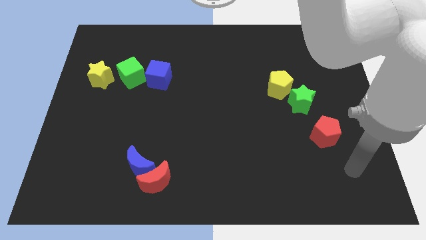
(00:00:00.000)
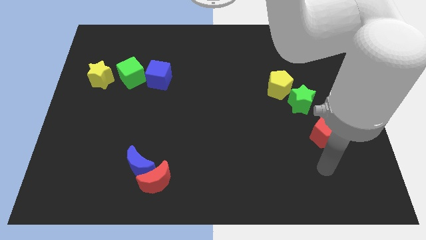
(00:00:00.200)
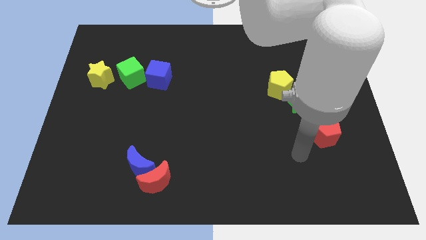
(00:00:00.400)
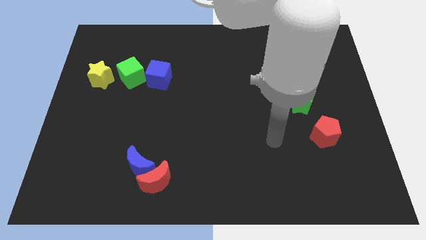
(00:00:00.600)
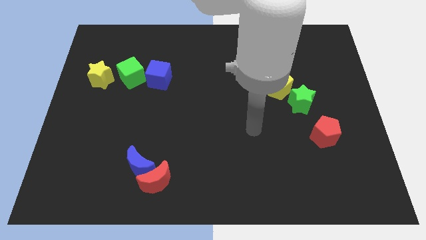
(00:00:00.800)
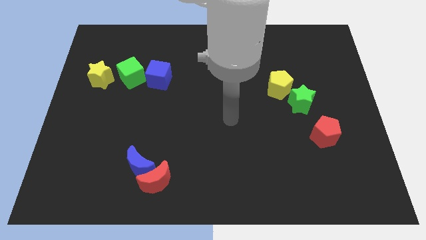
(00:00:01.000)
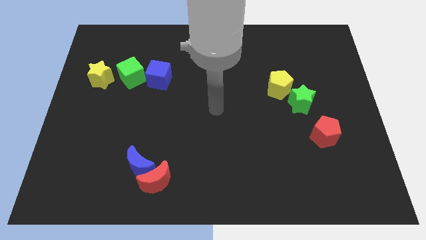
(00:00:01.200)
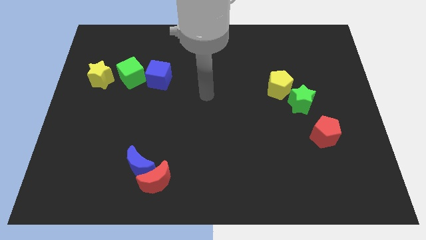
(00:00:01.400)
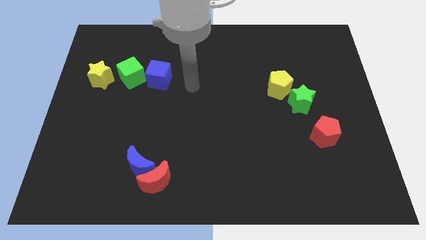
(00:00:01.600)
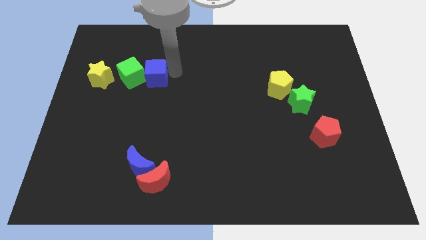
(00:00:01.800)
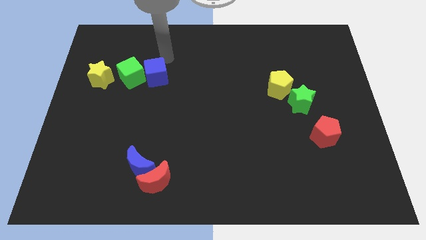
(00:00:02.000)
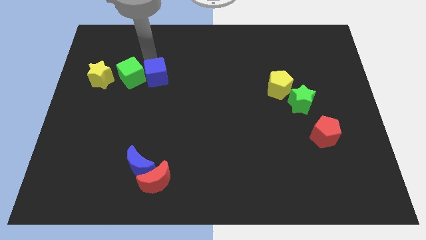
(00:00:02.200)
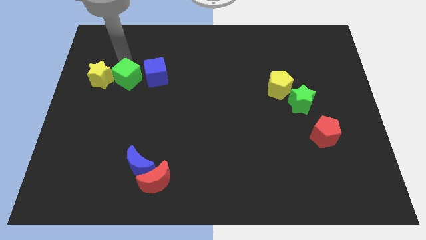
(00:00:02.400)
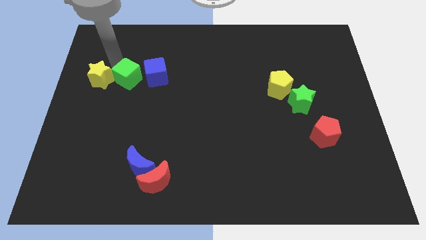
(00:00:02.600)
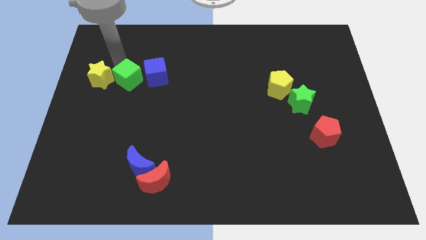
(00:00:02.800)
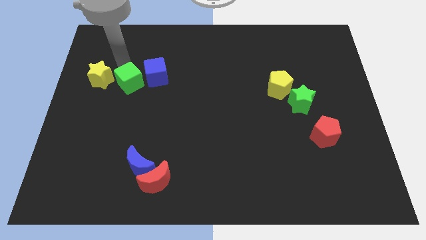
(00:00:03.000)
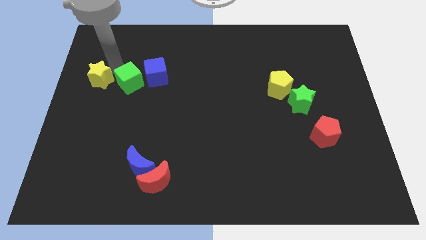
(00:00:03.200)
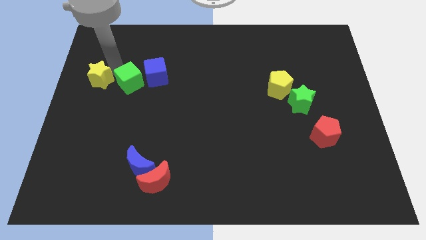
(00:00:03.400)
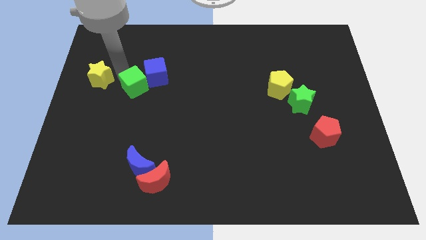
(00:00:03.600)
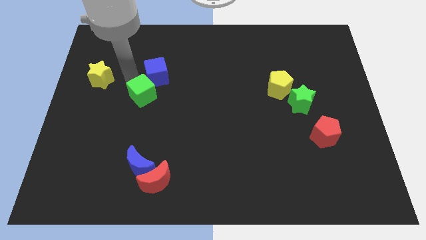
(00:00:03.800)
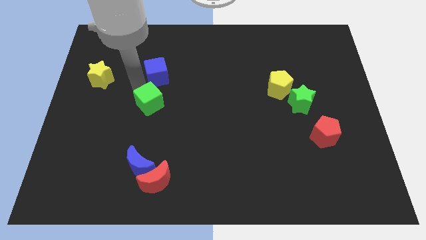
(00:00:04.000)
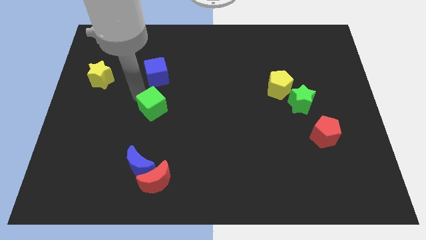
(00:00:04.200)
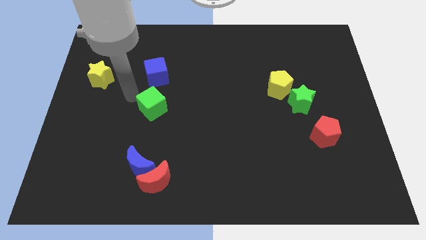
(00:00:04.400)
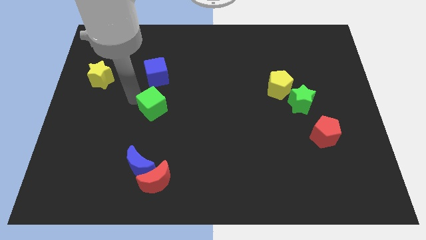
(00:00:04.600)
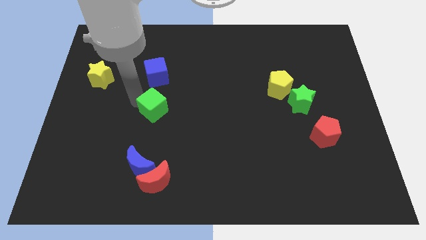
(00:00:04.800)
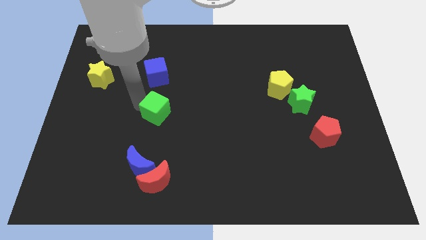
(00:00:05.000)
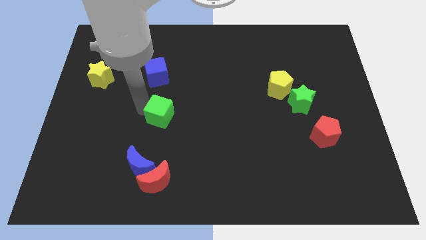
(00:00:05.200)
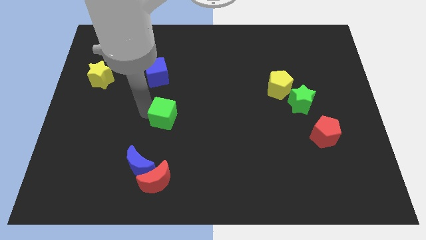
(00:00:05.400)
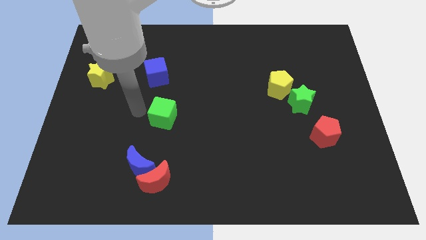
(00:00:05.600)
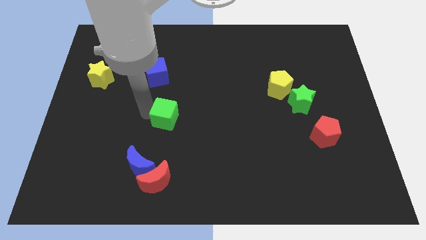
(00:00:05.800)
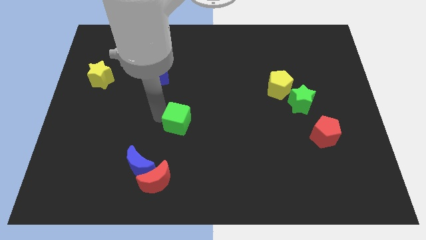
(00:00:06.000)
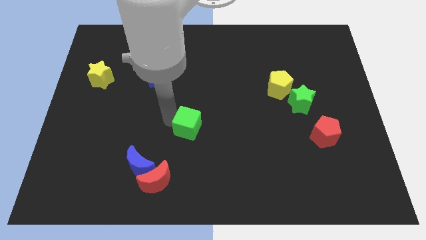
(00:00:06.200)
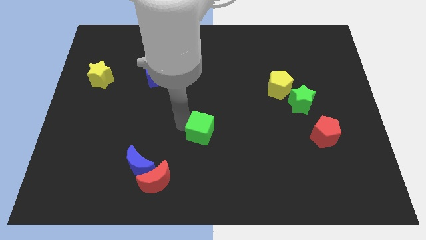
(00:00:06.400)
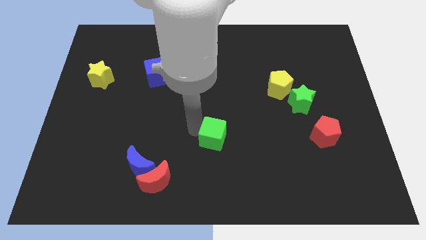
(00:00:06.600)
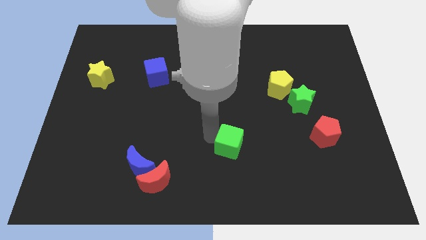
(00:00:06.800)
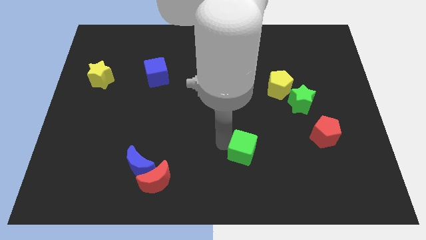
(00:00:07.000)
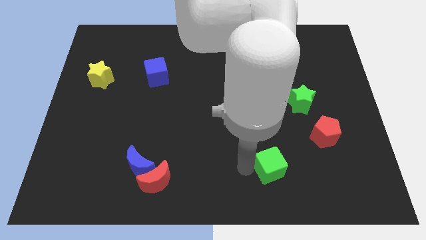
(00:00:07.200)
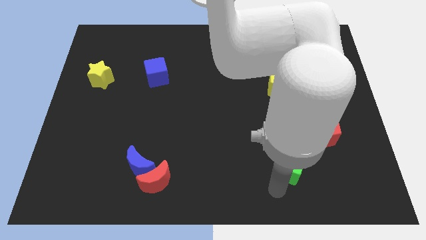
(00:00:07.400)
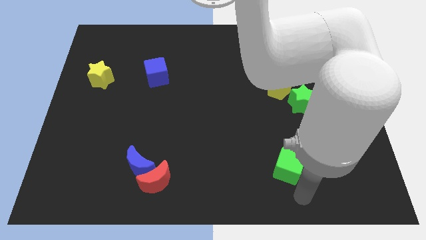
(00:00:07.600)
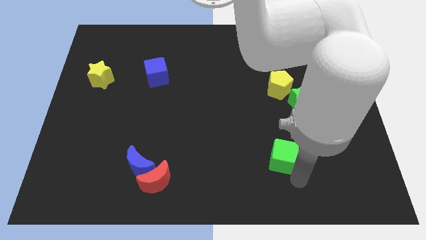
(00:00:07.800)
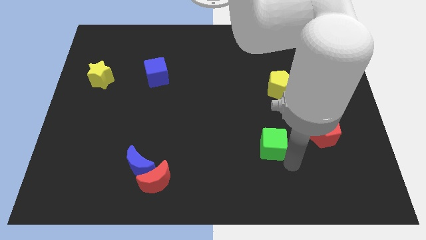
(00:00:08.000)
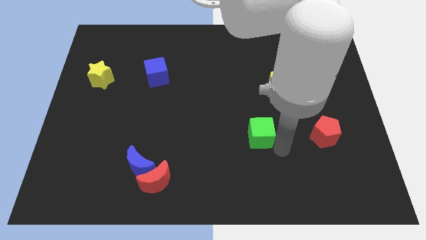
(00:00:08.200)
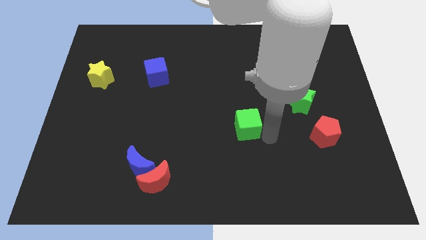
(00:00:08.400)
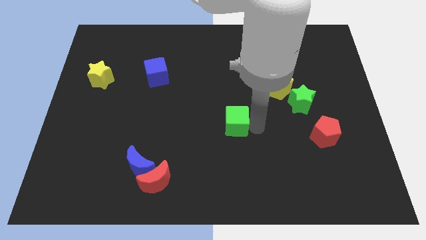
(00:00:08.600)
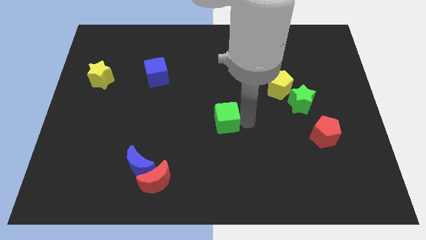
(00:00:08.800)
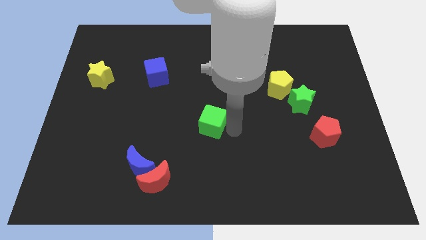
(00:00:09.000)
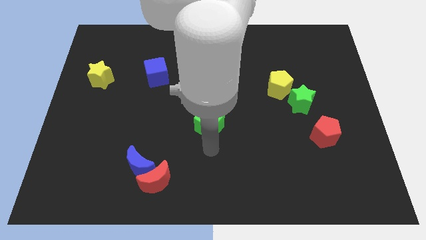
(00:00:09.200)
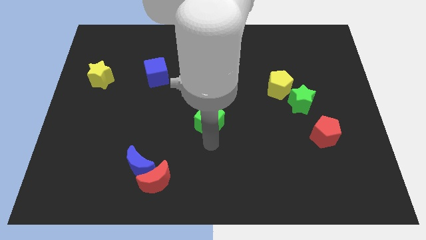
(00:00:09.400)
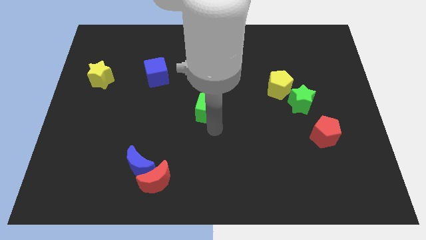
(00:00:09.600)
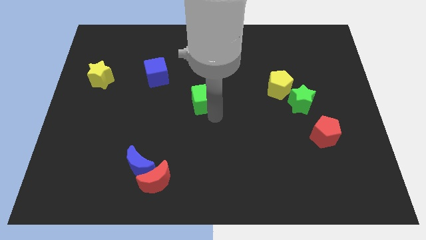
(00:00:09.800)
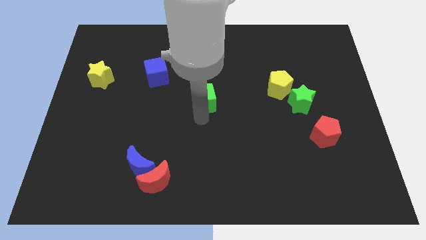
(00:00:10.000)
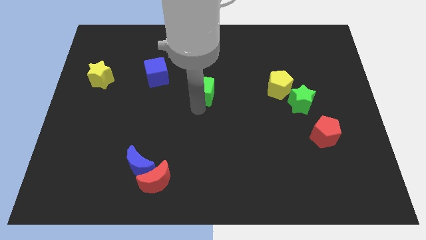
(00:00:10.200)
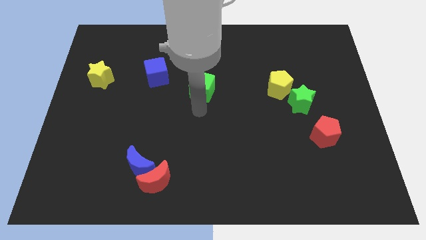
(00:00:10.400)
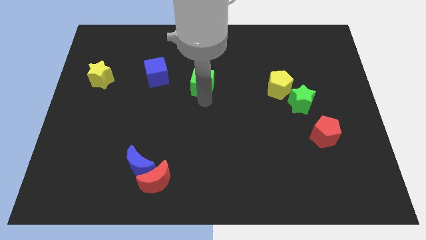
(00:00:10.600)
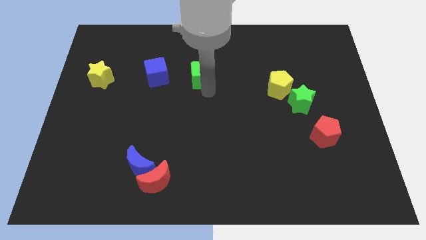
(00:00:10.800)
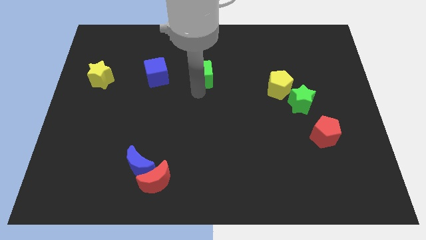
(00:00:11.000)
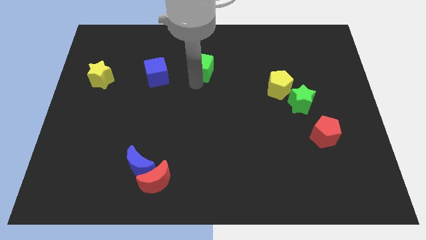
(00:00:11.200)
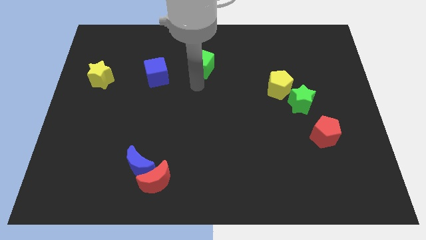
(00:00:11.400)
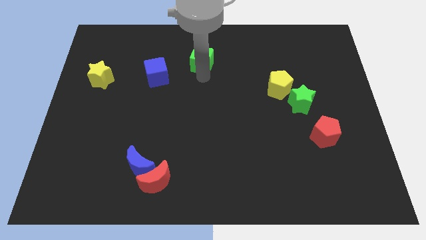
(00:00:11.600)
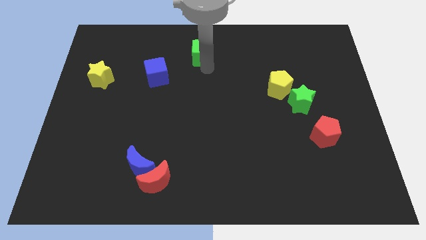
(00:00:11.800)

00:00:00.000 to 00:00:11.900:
put the green cube to the top
